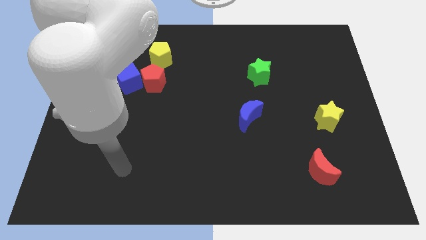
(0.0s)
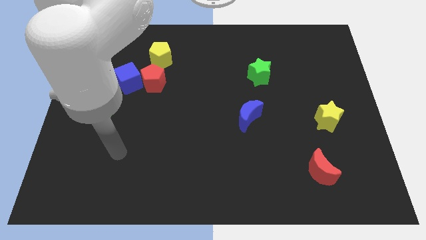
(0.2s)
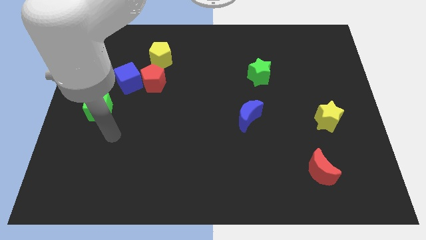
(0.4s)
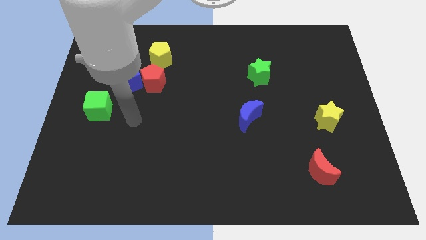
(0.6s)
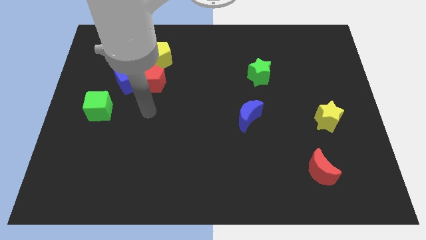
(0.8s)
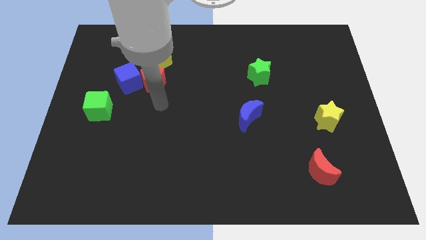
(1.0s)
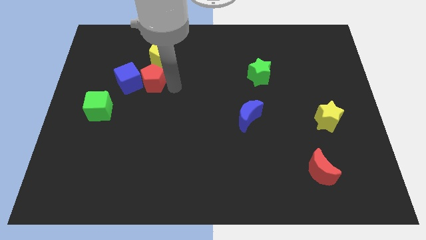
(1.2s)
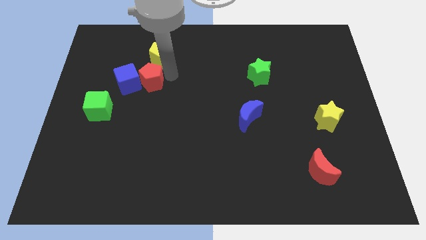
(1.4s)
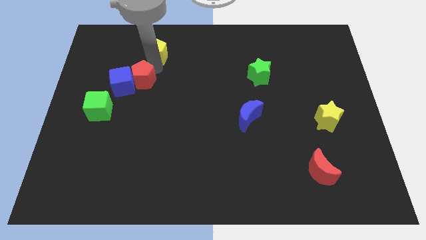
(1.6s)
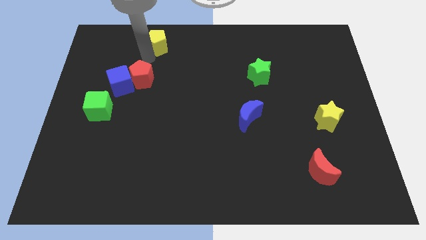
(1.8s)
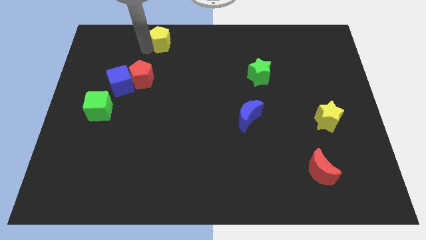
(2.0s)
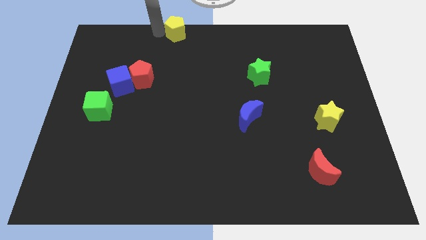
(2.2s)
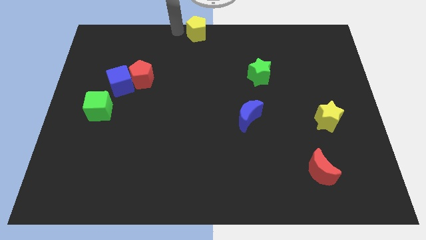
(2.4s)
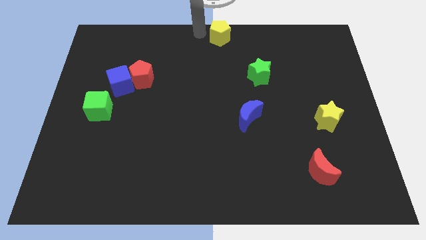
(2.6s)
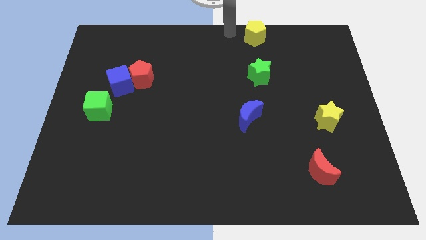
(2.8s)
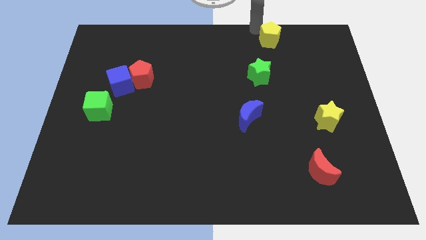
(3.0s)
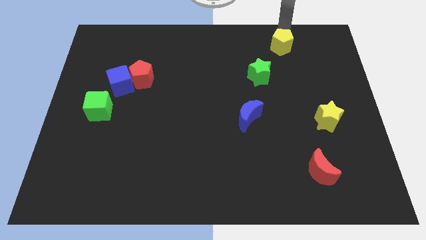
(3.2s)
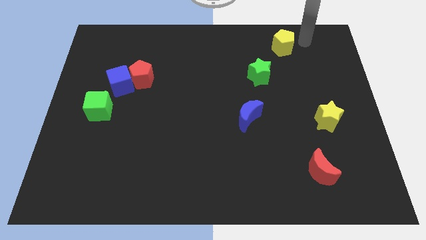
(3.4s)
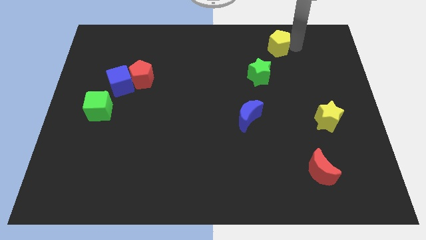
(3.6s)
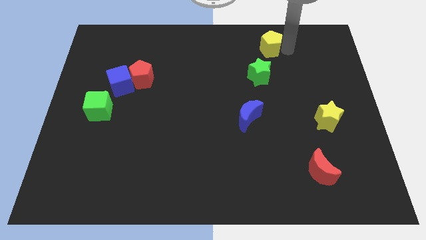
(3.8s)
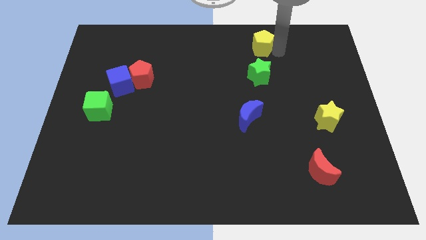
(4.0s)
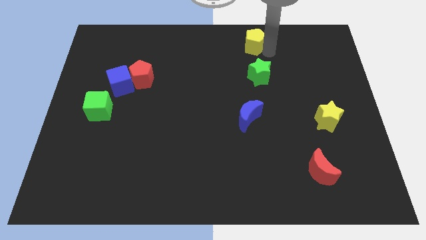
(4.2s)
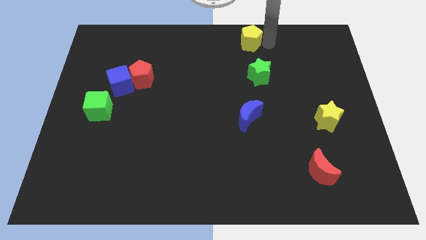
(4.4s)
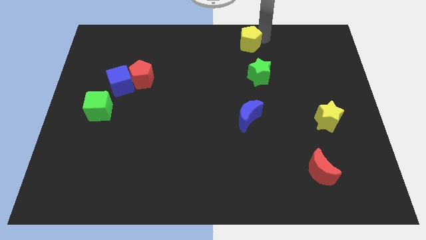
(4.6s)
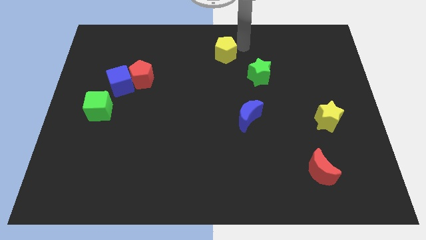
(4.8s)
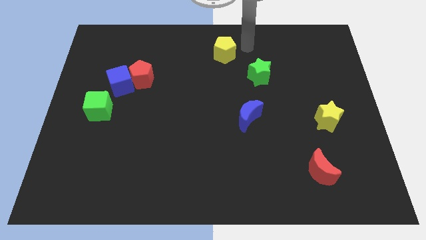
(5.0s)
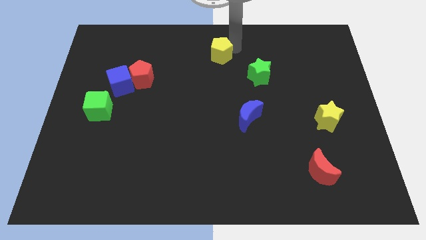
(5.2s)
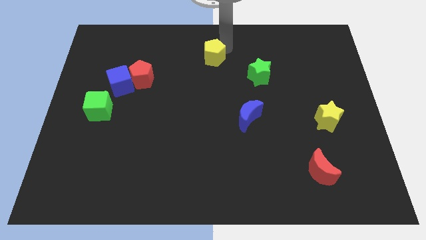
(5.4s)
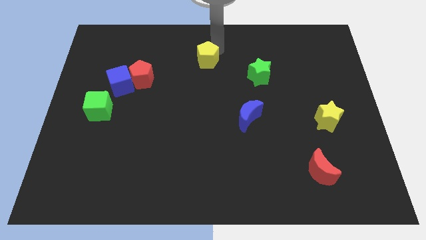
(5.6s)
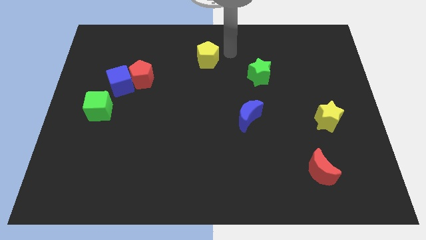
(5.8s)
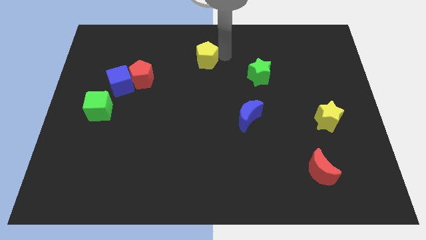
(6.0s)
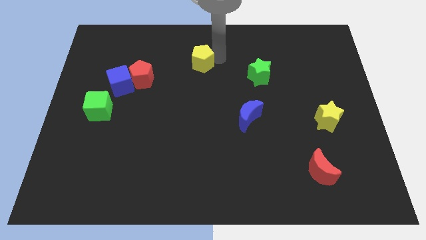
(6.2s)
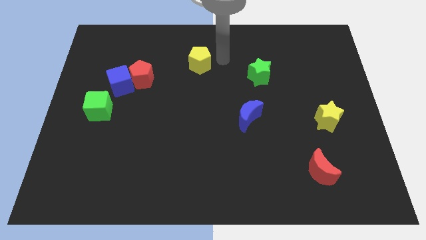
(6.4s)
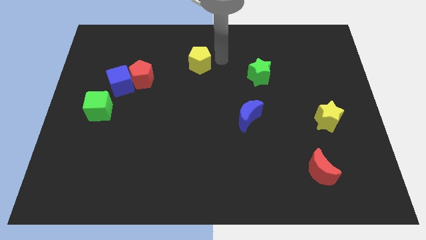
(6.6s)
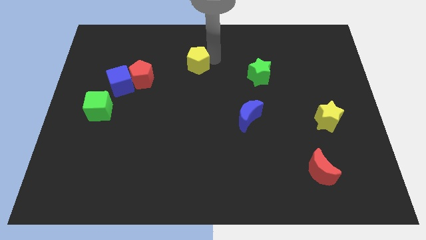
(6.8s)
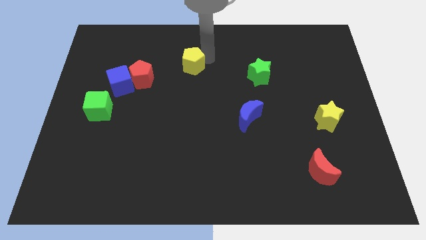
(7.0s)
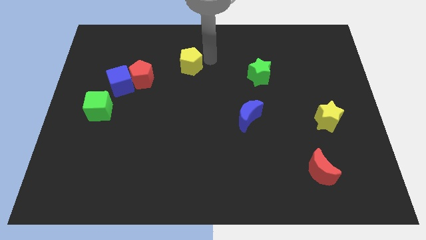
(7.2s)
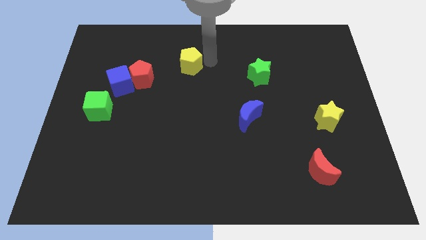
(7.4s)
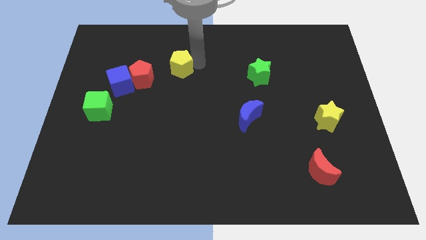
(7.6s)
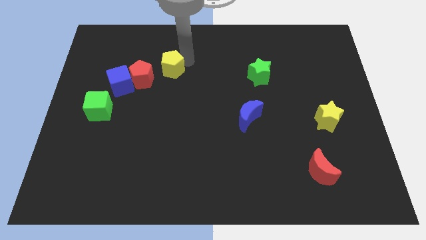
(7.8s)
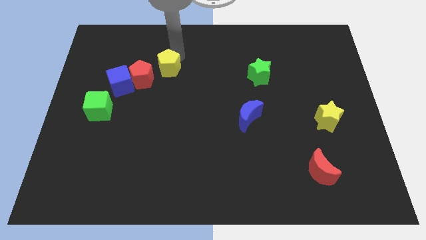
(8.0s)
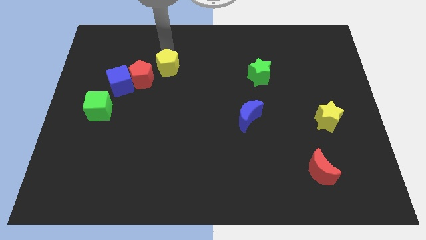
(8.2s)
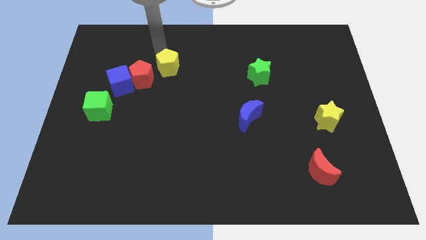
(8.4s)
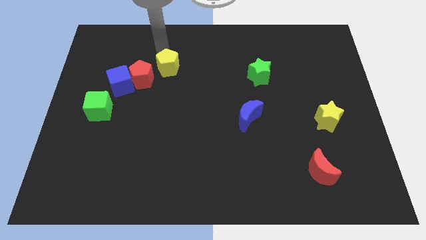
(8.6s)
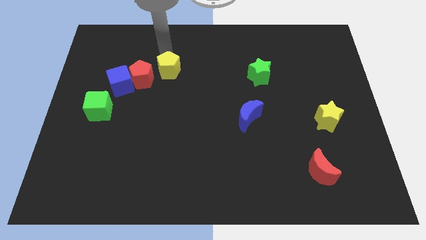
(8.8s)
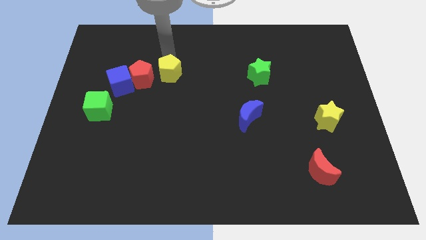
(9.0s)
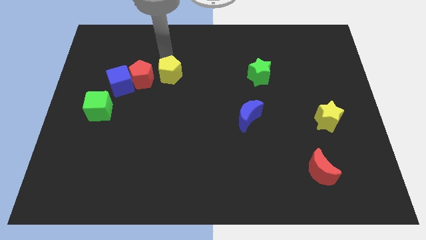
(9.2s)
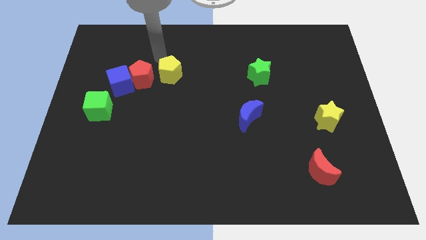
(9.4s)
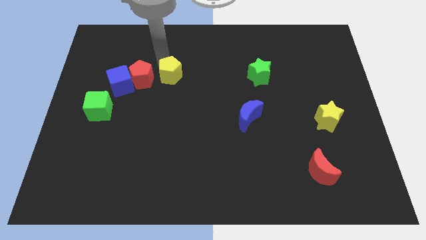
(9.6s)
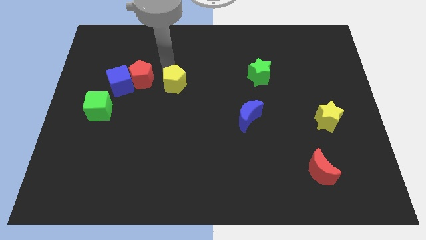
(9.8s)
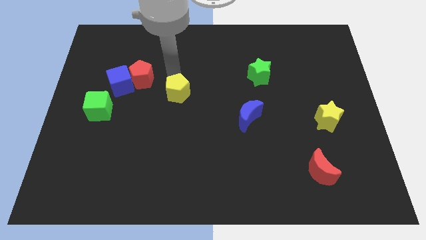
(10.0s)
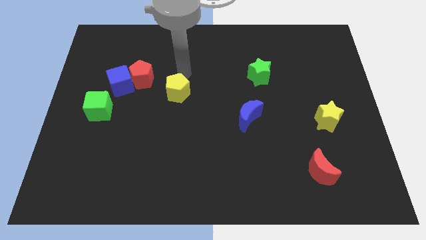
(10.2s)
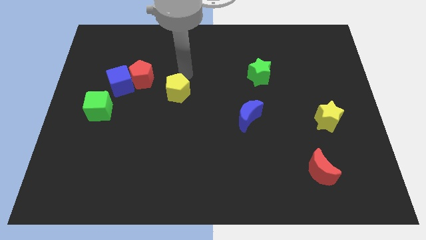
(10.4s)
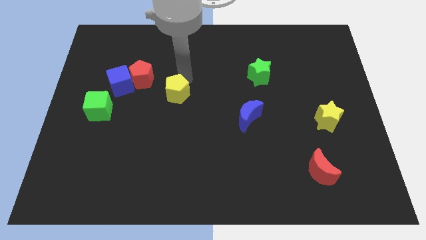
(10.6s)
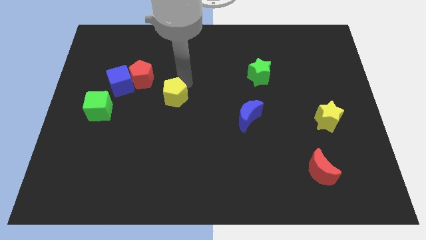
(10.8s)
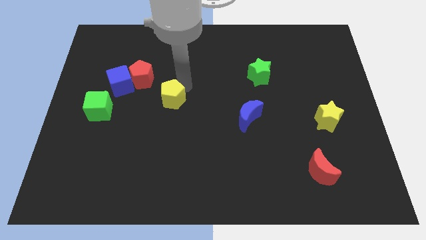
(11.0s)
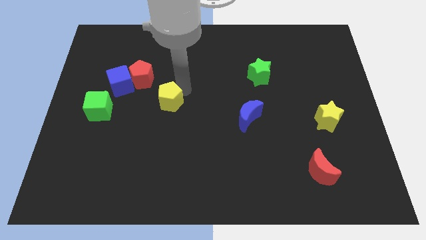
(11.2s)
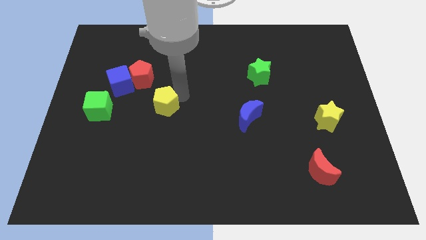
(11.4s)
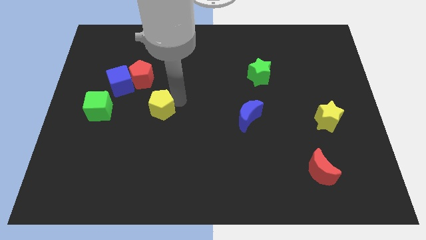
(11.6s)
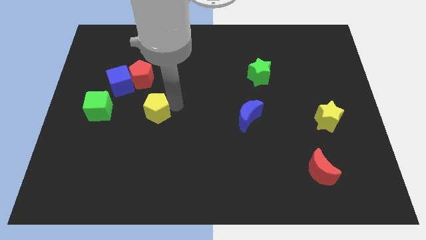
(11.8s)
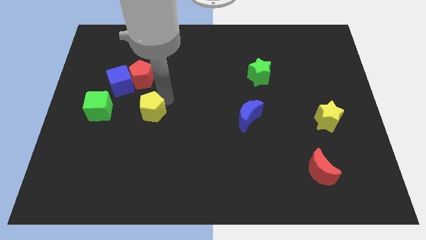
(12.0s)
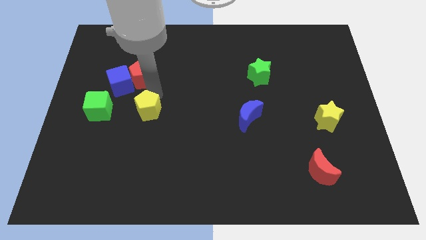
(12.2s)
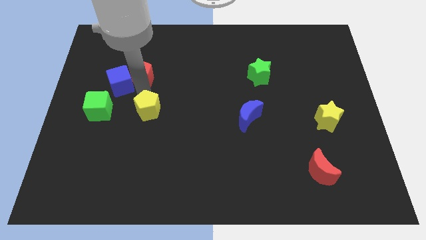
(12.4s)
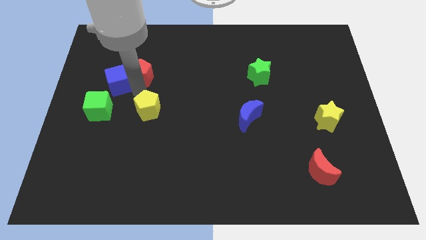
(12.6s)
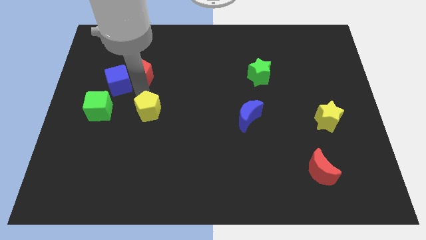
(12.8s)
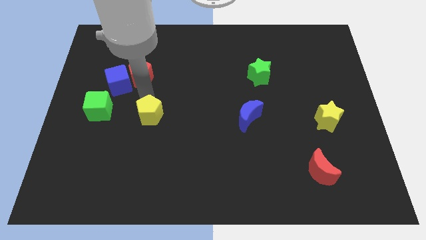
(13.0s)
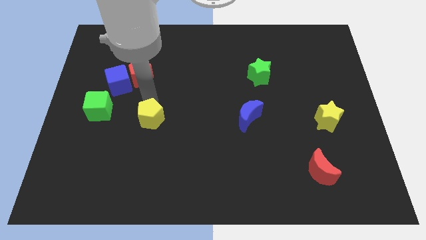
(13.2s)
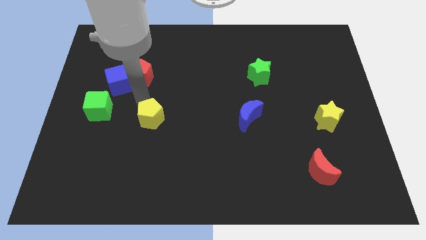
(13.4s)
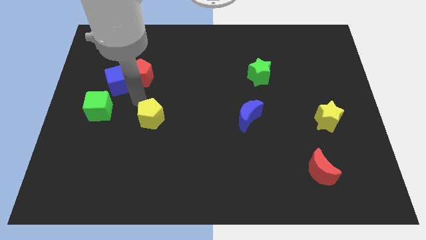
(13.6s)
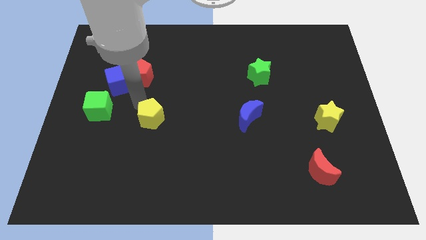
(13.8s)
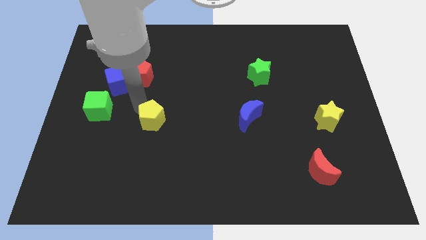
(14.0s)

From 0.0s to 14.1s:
slide the yellow pentagon downwards

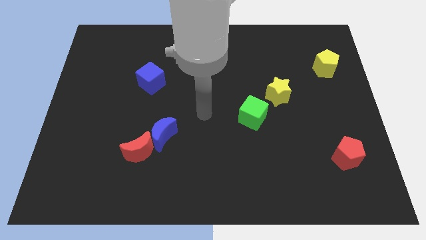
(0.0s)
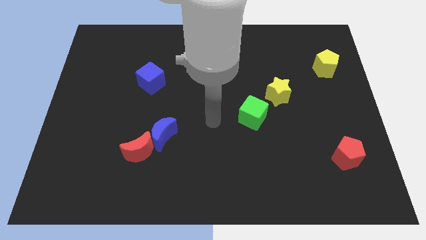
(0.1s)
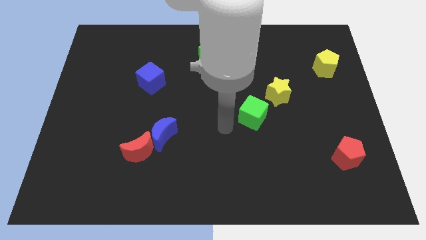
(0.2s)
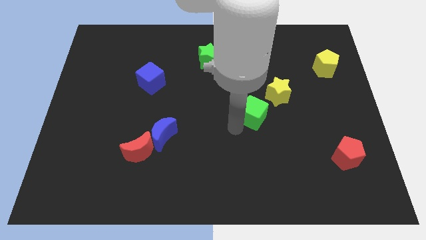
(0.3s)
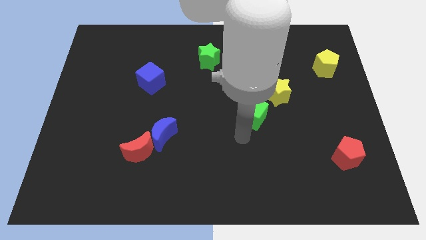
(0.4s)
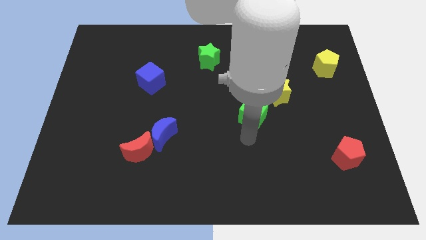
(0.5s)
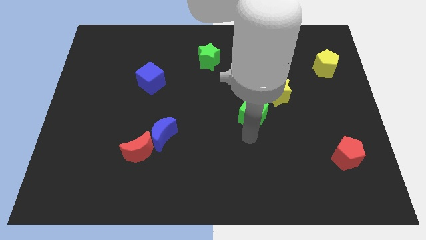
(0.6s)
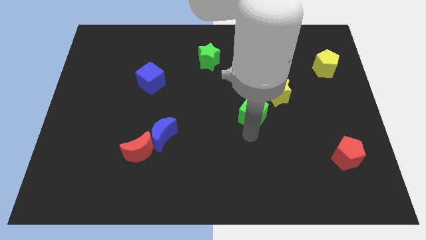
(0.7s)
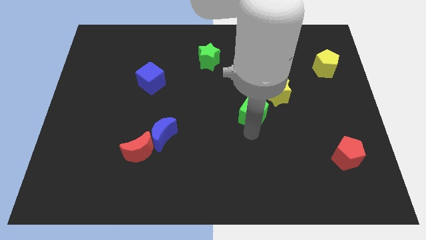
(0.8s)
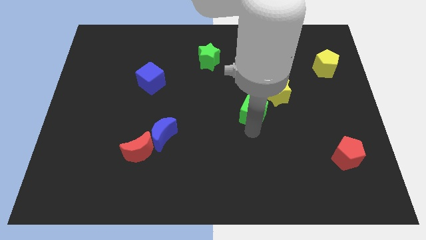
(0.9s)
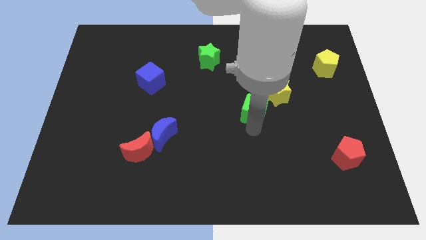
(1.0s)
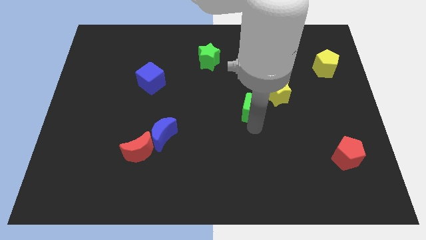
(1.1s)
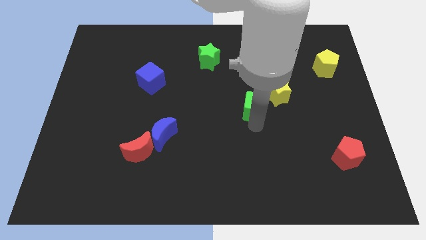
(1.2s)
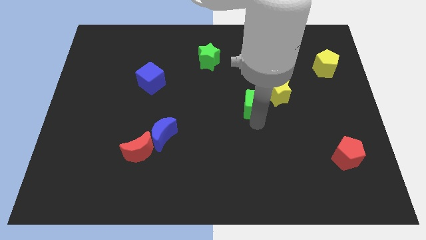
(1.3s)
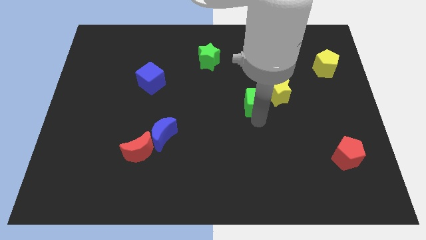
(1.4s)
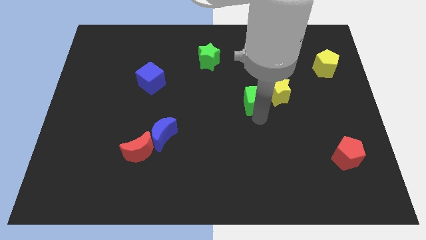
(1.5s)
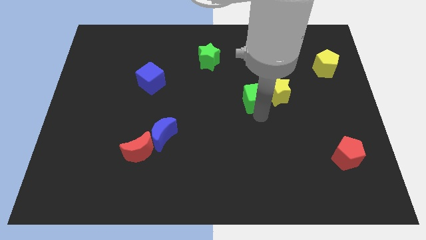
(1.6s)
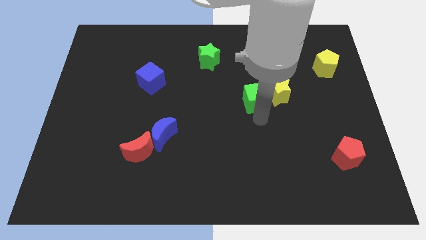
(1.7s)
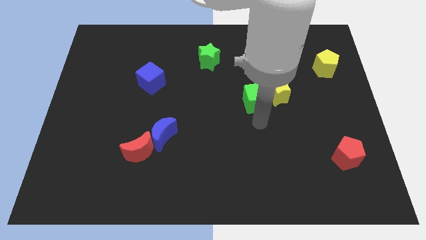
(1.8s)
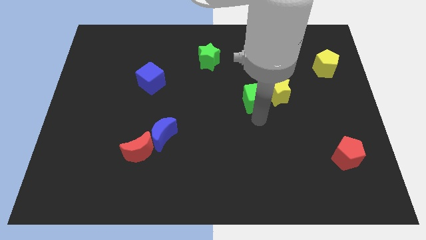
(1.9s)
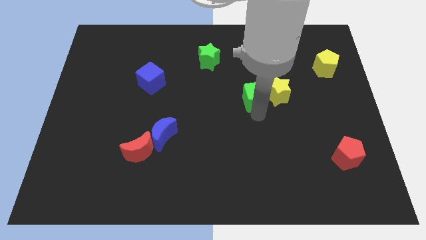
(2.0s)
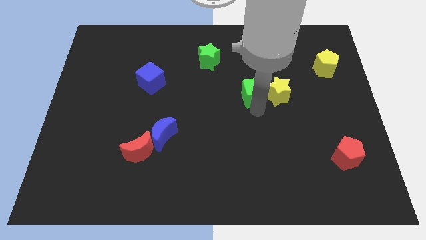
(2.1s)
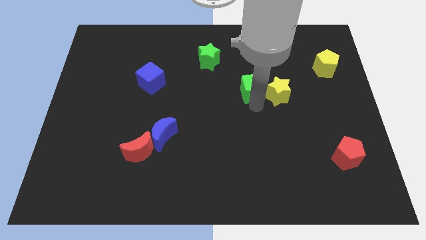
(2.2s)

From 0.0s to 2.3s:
move the green cube slightly up
